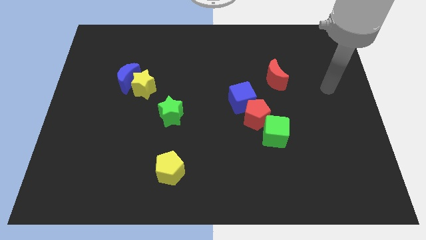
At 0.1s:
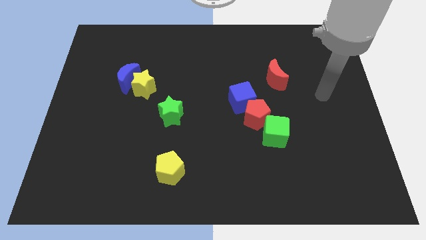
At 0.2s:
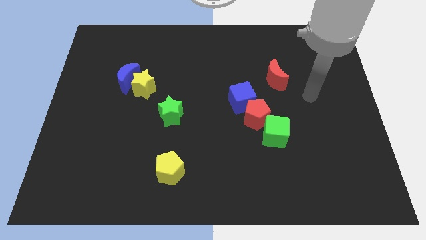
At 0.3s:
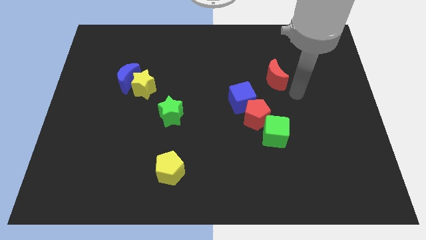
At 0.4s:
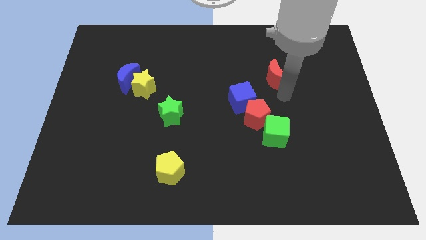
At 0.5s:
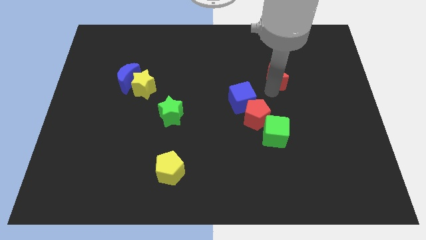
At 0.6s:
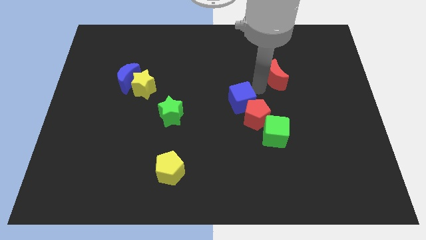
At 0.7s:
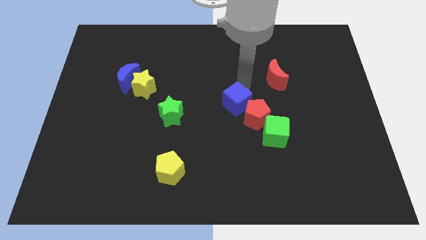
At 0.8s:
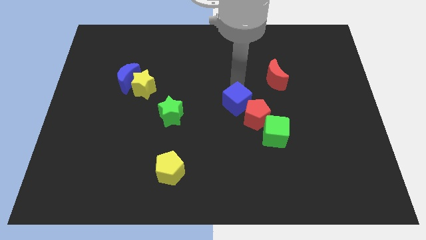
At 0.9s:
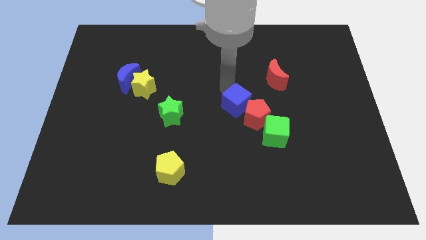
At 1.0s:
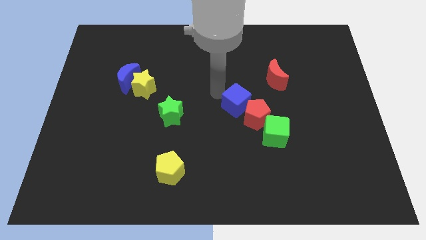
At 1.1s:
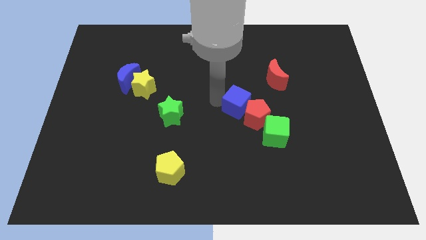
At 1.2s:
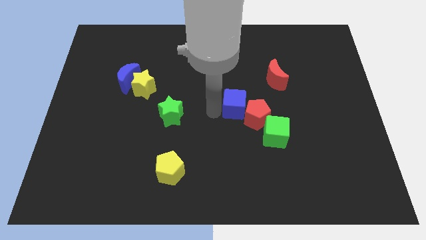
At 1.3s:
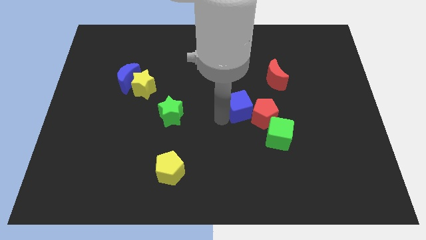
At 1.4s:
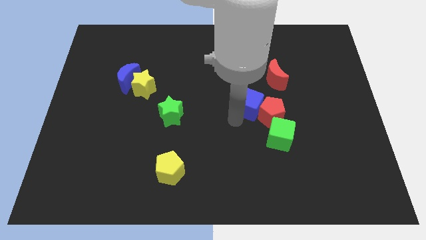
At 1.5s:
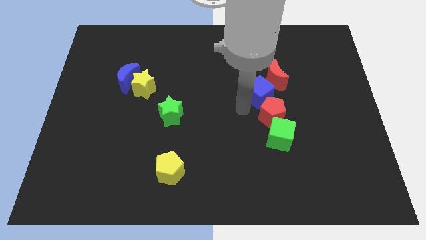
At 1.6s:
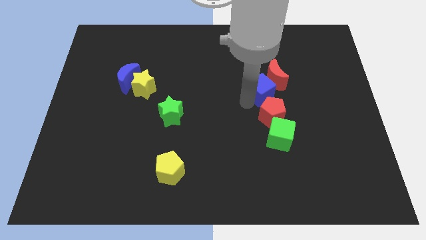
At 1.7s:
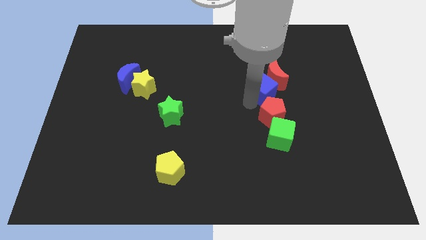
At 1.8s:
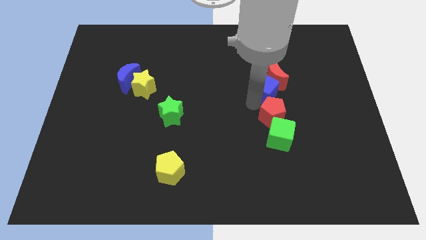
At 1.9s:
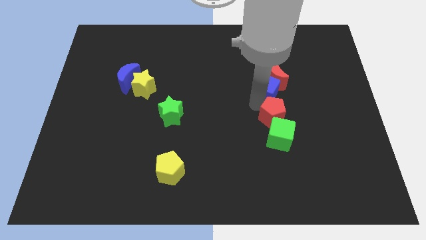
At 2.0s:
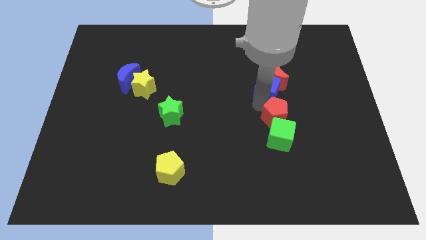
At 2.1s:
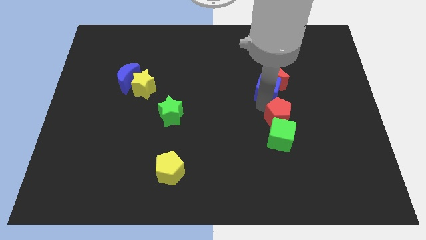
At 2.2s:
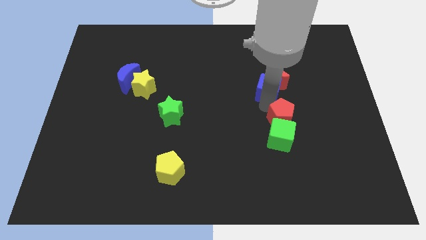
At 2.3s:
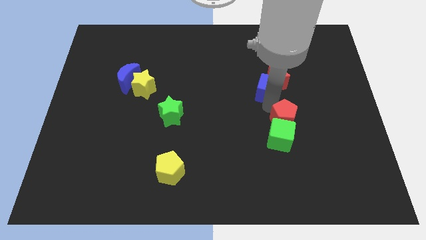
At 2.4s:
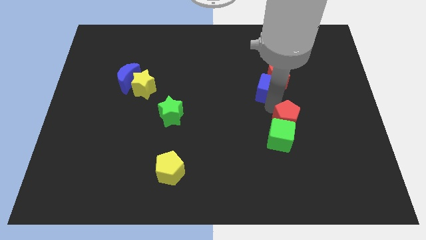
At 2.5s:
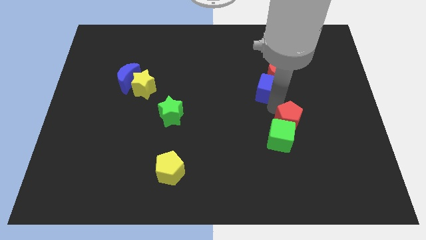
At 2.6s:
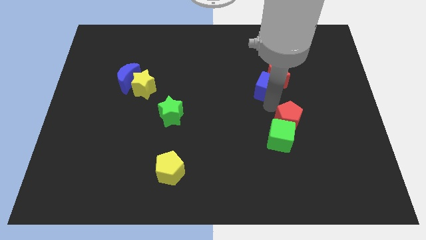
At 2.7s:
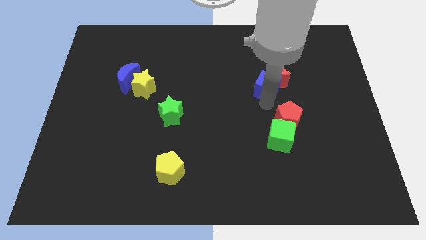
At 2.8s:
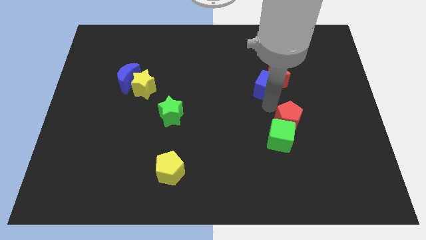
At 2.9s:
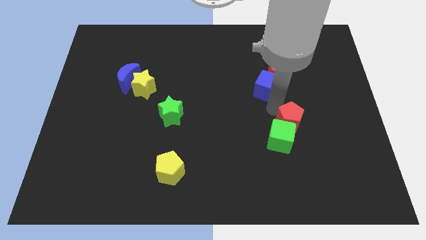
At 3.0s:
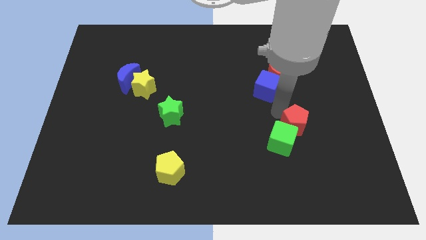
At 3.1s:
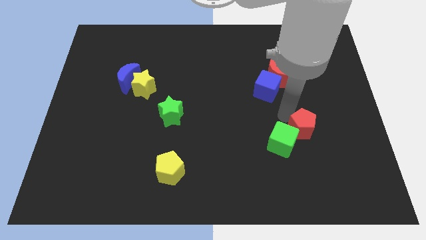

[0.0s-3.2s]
slide the red pentagon down and to the right diagonally somewhat

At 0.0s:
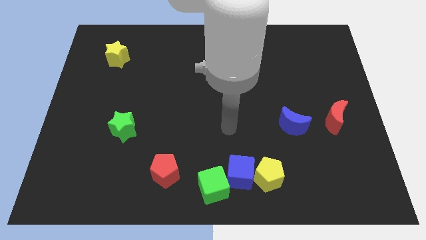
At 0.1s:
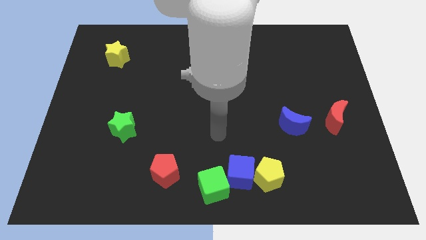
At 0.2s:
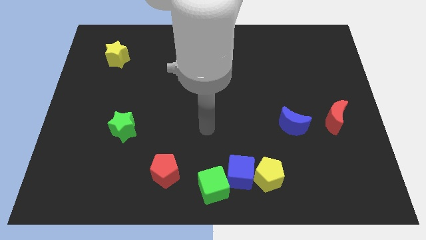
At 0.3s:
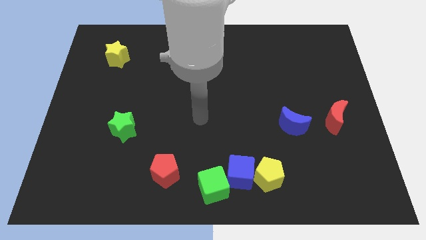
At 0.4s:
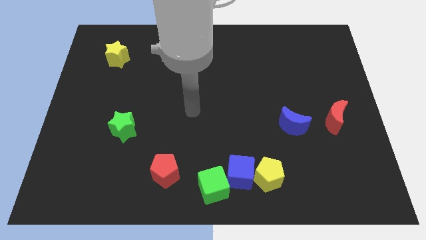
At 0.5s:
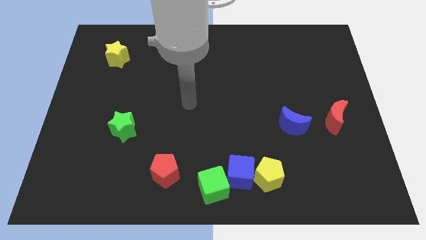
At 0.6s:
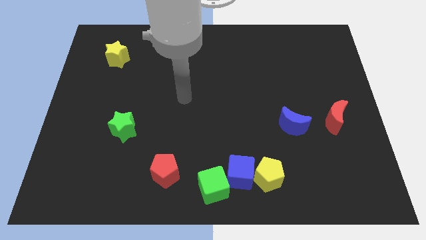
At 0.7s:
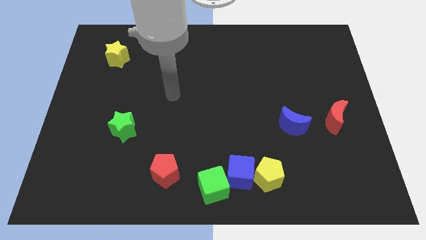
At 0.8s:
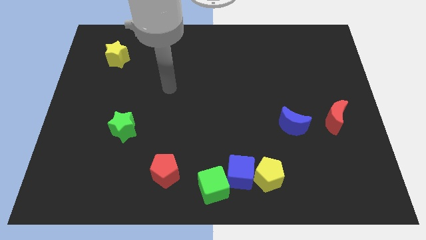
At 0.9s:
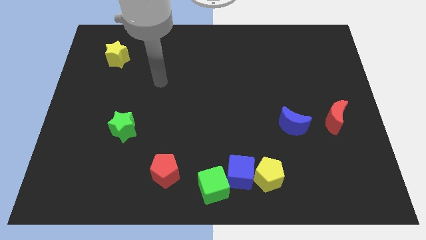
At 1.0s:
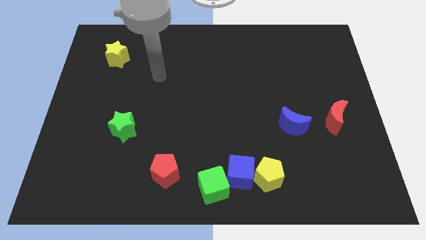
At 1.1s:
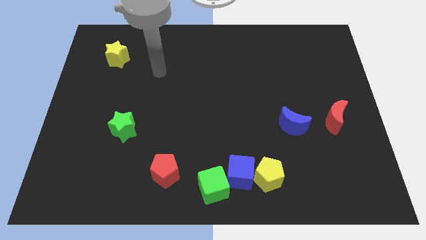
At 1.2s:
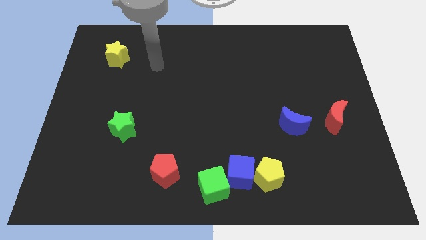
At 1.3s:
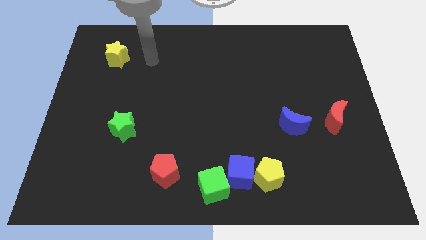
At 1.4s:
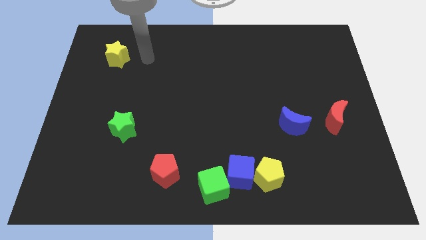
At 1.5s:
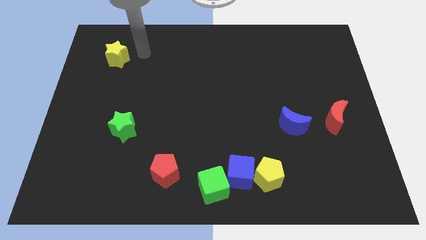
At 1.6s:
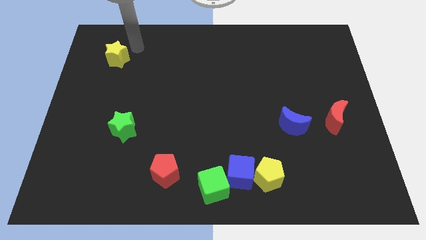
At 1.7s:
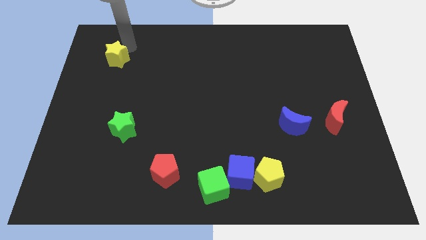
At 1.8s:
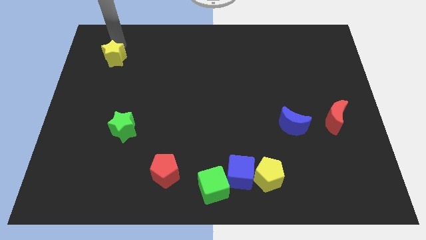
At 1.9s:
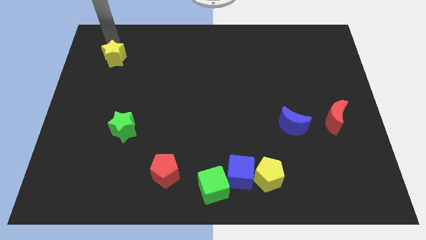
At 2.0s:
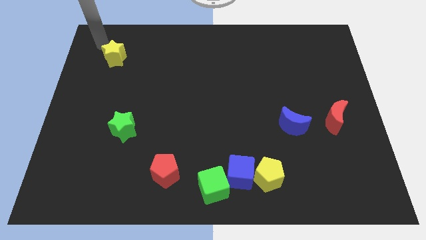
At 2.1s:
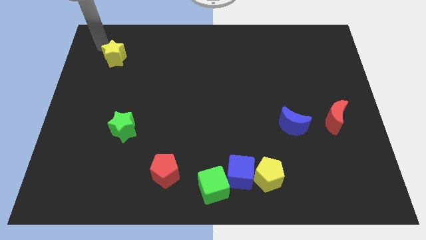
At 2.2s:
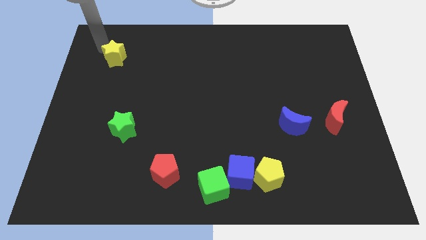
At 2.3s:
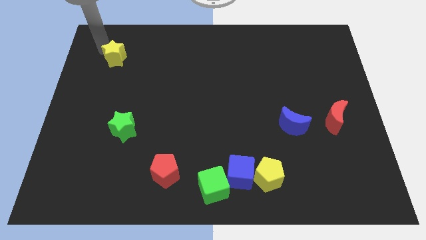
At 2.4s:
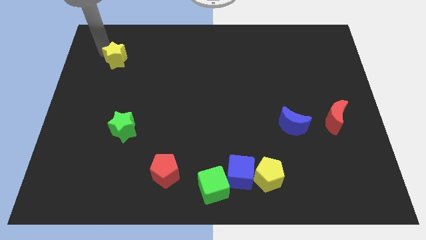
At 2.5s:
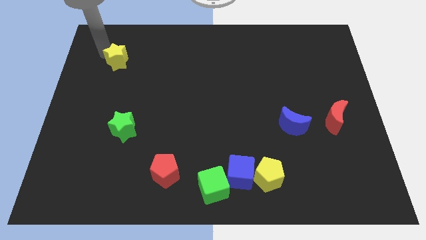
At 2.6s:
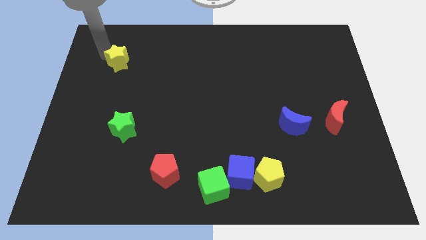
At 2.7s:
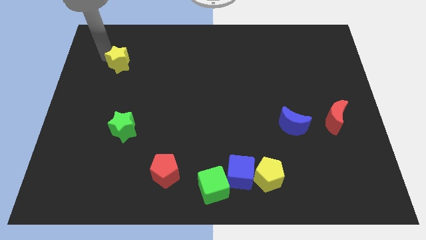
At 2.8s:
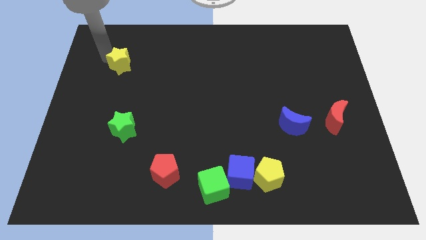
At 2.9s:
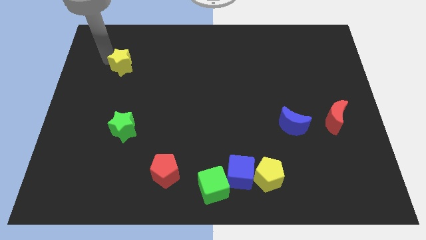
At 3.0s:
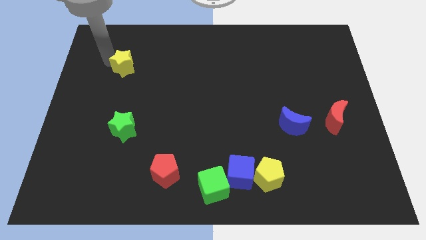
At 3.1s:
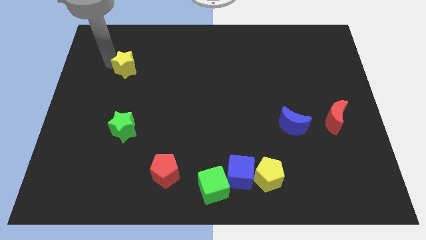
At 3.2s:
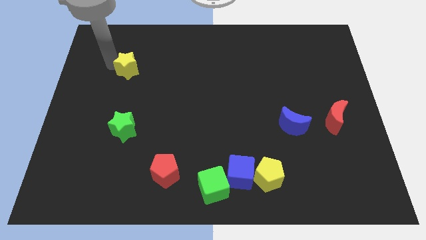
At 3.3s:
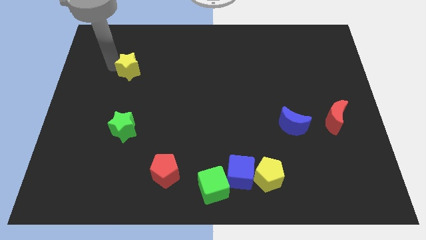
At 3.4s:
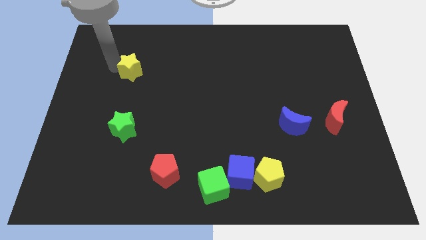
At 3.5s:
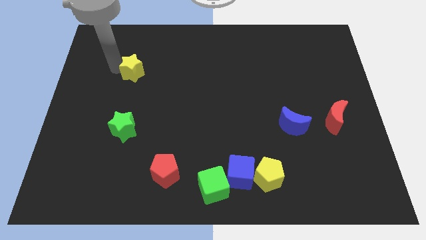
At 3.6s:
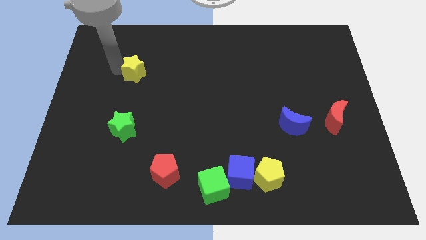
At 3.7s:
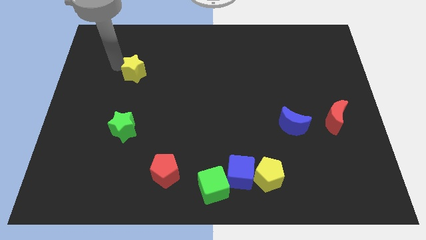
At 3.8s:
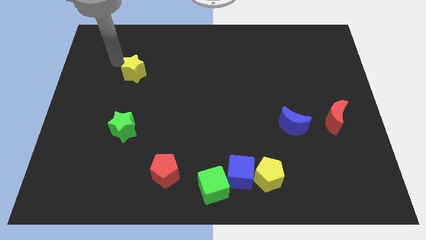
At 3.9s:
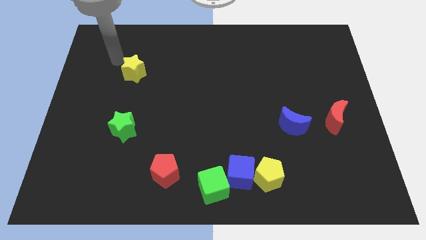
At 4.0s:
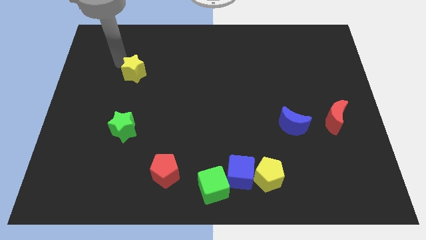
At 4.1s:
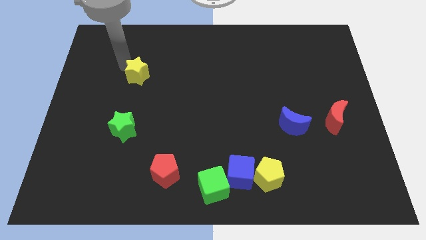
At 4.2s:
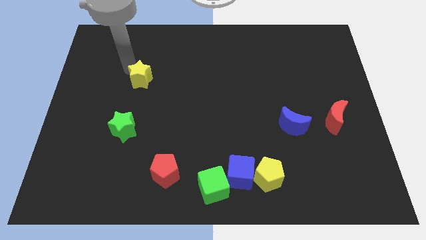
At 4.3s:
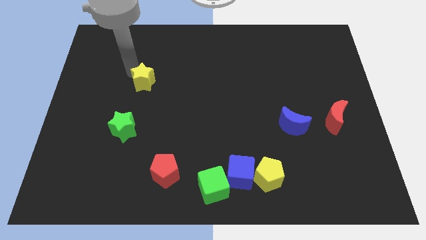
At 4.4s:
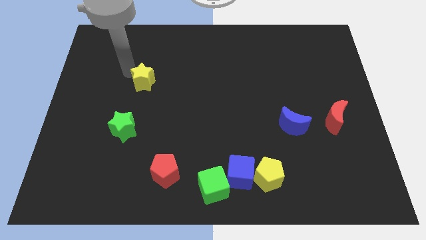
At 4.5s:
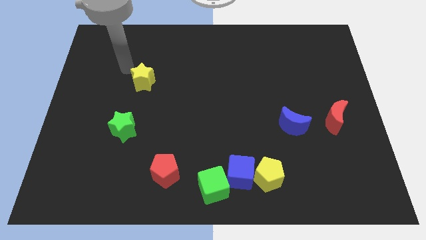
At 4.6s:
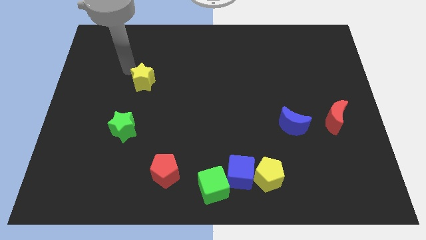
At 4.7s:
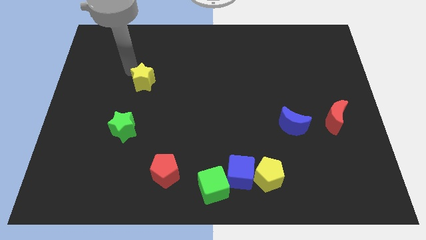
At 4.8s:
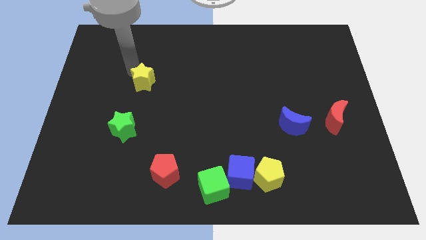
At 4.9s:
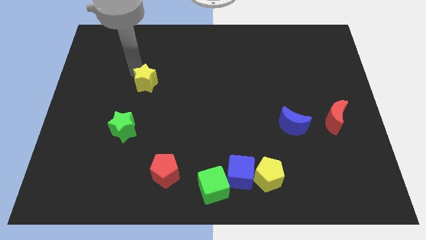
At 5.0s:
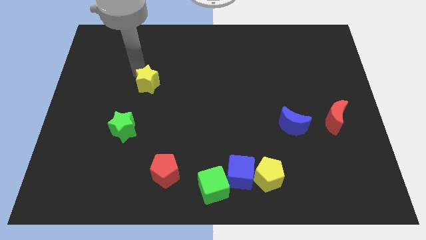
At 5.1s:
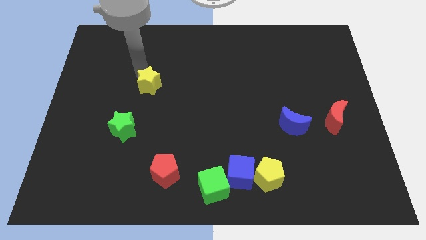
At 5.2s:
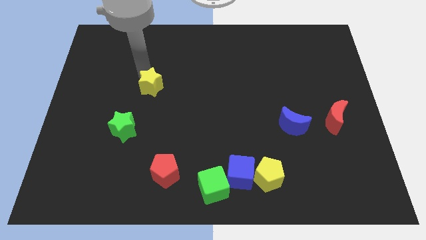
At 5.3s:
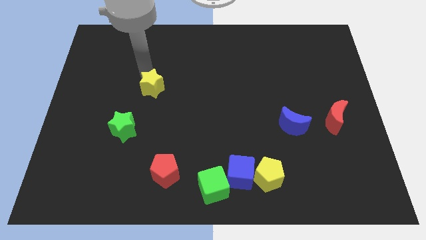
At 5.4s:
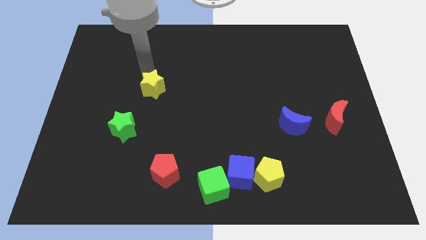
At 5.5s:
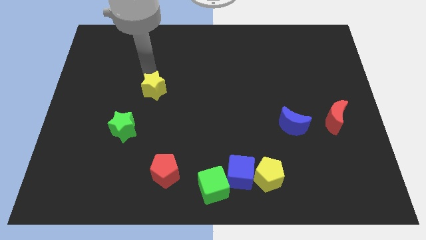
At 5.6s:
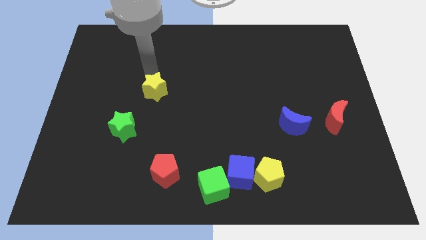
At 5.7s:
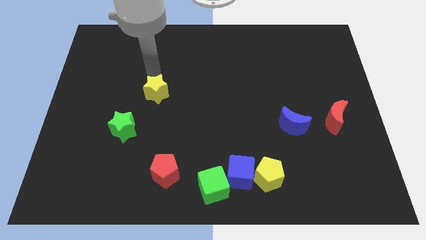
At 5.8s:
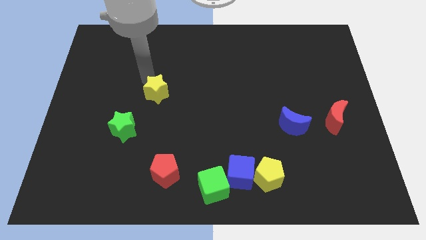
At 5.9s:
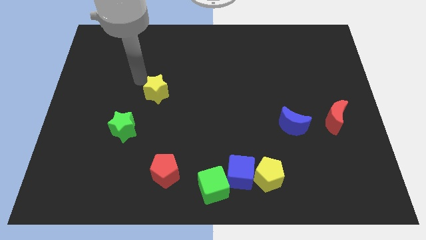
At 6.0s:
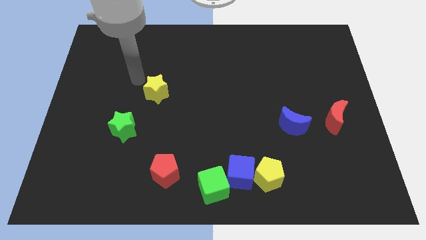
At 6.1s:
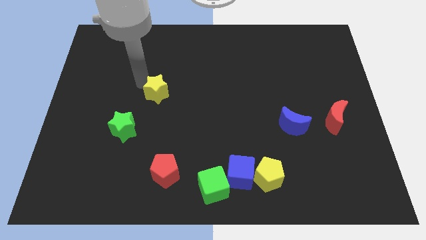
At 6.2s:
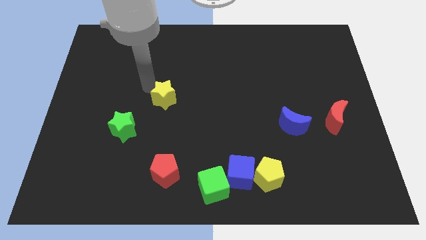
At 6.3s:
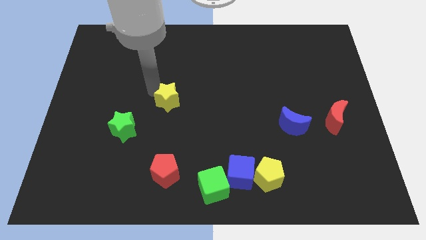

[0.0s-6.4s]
slide the yellow star down and right diagonally
